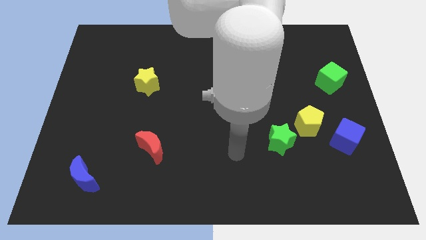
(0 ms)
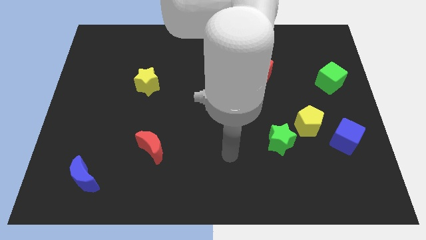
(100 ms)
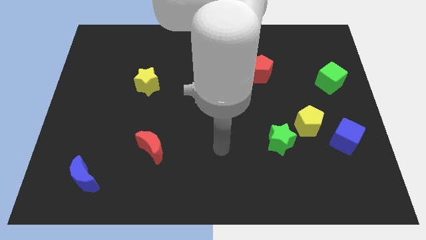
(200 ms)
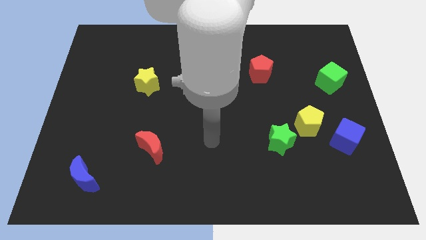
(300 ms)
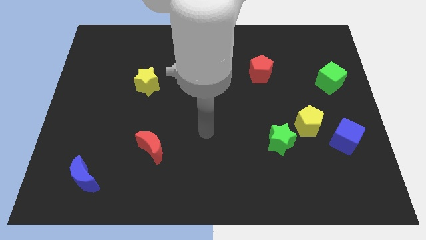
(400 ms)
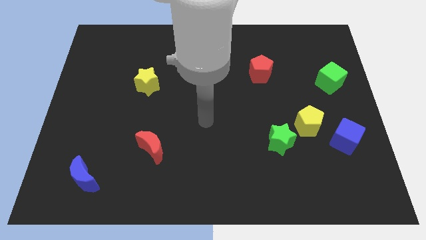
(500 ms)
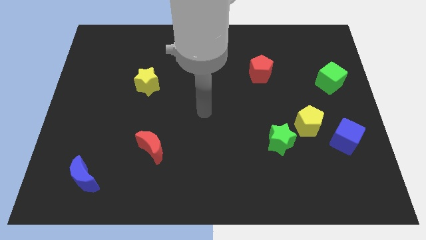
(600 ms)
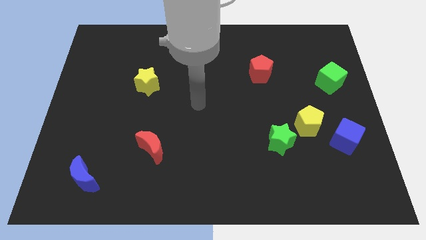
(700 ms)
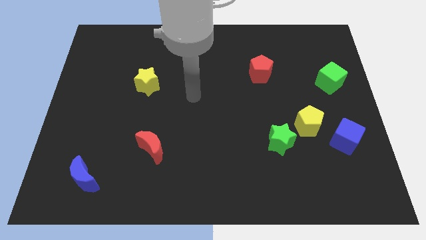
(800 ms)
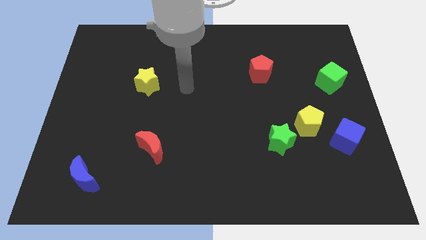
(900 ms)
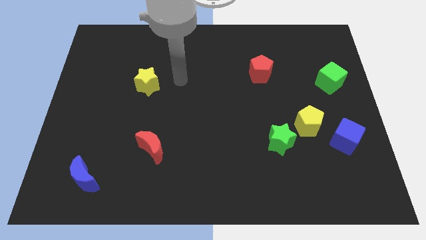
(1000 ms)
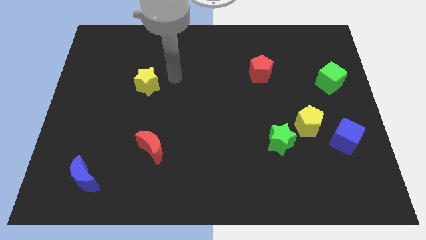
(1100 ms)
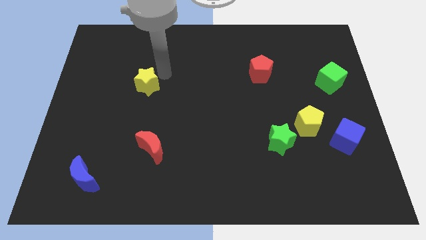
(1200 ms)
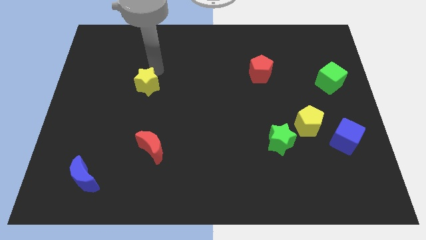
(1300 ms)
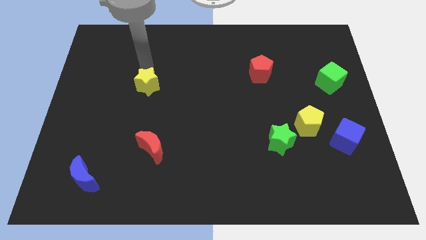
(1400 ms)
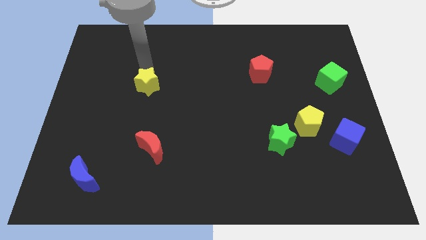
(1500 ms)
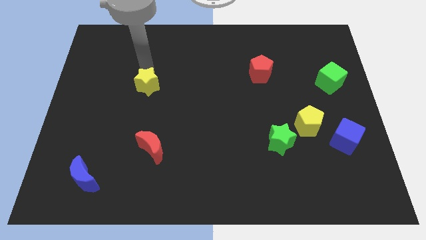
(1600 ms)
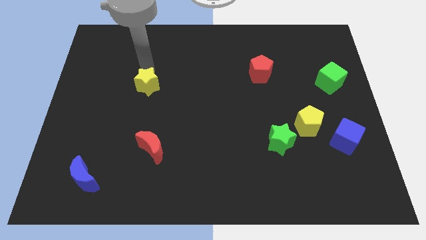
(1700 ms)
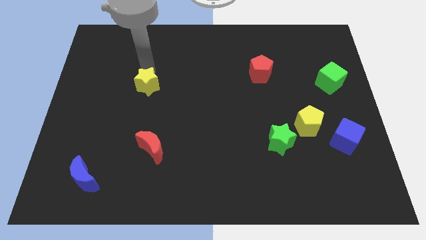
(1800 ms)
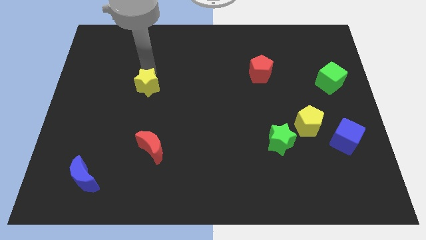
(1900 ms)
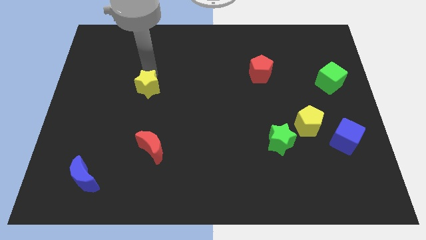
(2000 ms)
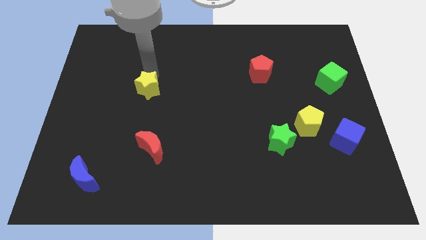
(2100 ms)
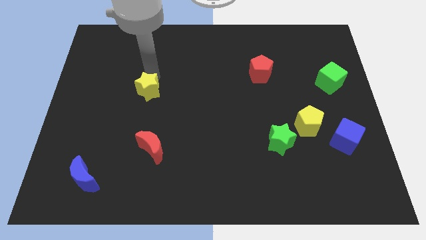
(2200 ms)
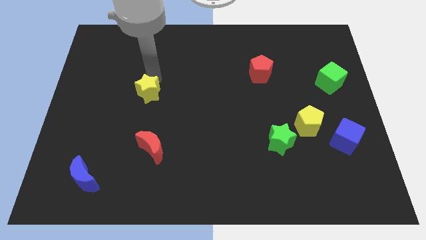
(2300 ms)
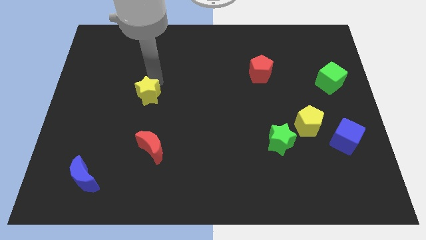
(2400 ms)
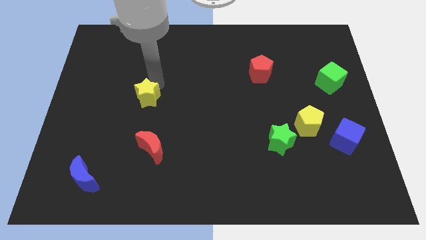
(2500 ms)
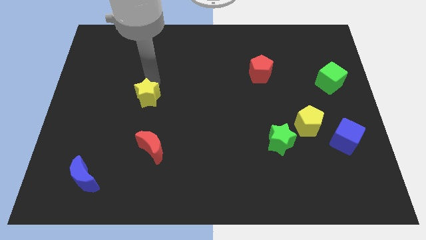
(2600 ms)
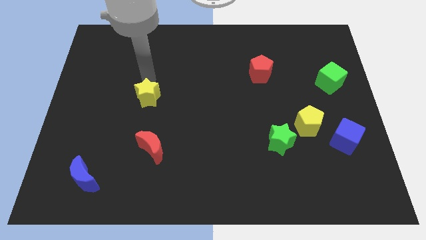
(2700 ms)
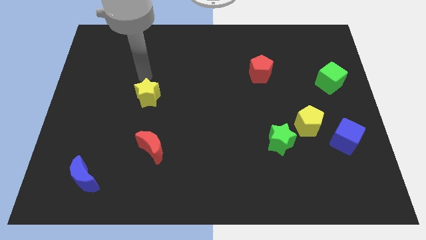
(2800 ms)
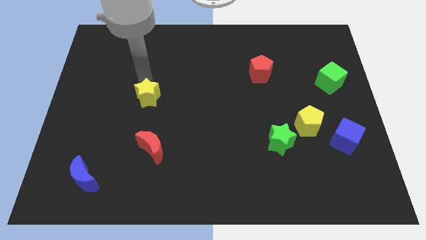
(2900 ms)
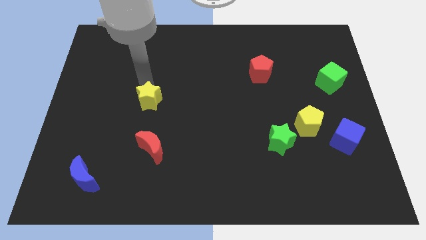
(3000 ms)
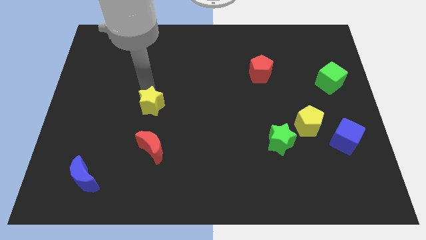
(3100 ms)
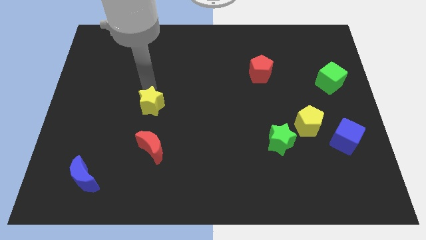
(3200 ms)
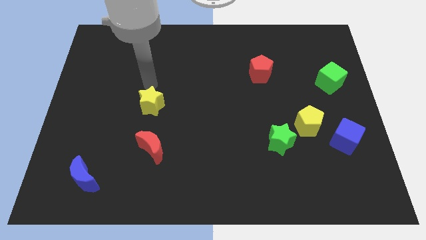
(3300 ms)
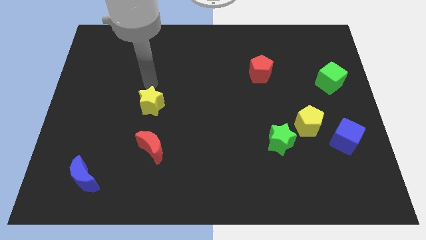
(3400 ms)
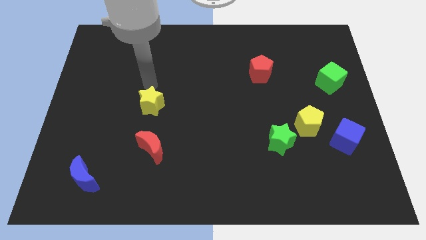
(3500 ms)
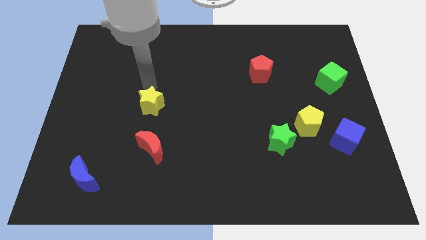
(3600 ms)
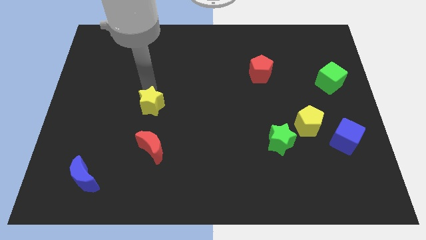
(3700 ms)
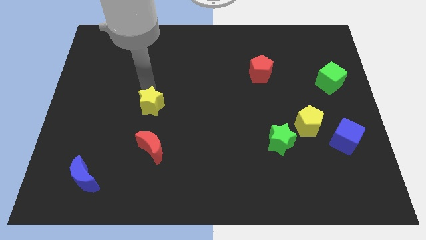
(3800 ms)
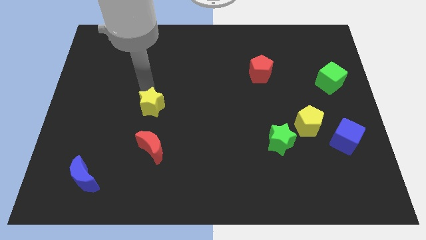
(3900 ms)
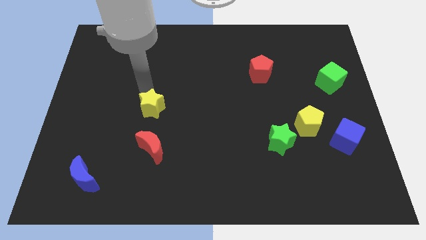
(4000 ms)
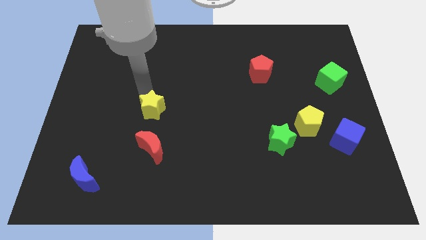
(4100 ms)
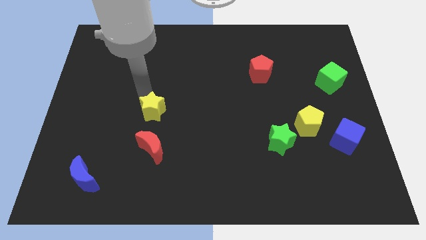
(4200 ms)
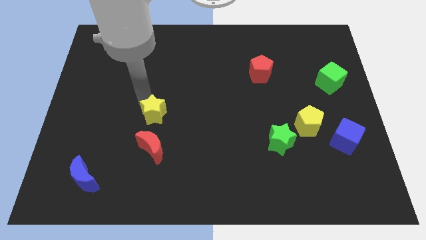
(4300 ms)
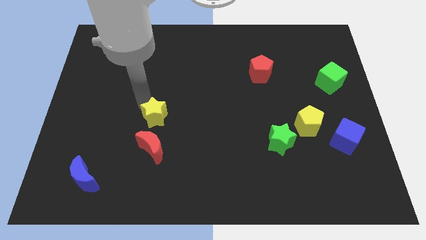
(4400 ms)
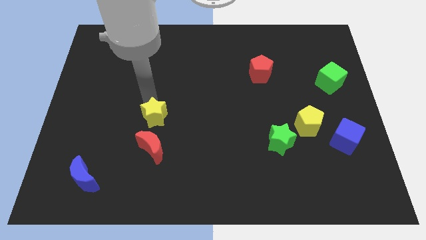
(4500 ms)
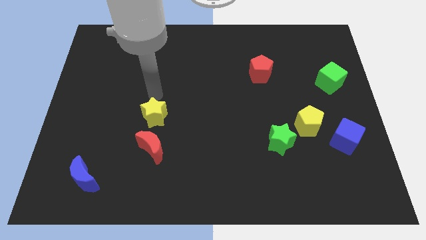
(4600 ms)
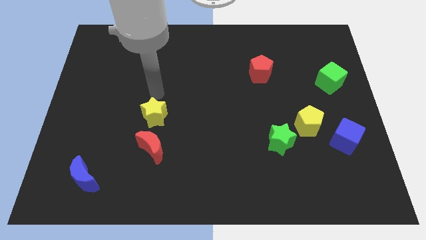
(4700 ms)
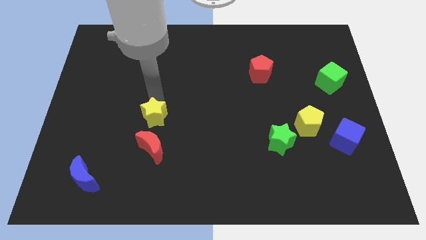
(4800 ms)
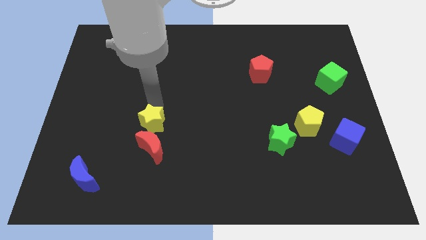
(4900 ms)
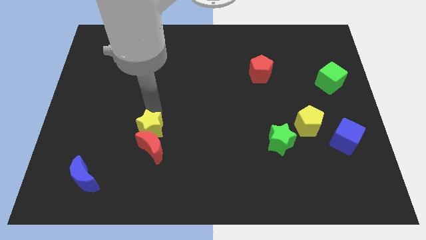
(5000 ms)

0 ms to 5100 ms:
slide the yellow star towards the red moon

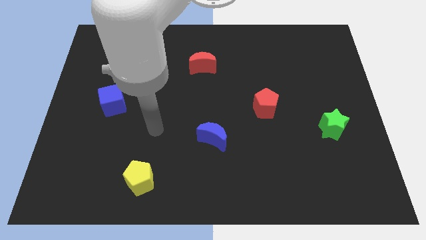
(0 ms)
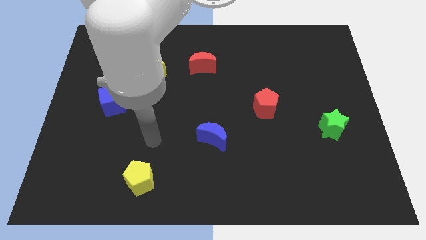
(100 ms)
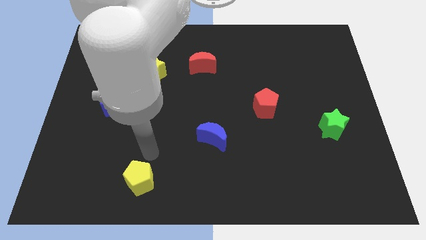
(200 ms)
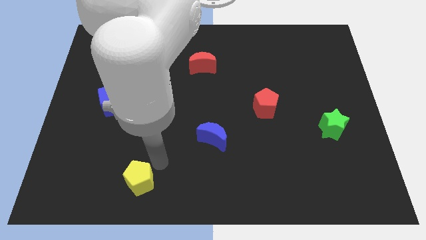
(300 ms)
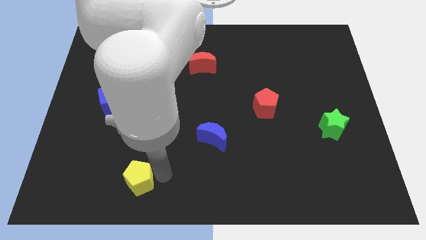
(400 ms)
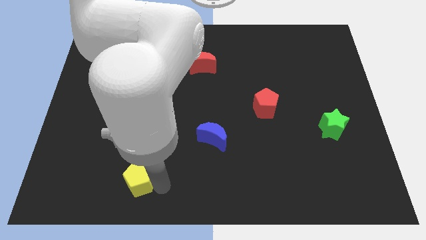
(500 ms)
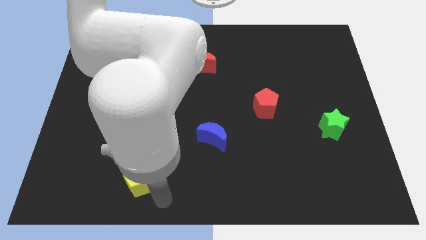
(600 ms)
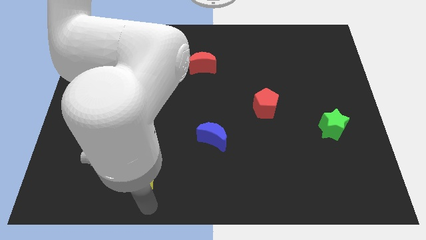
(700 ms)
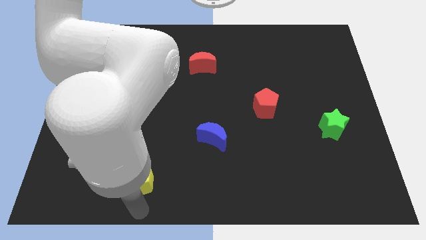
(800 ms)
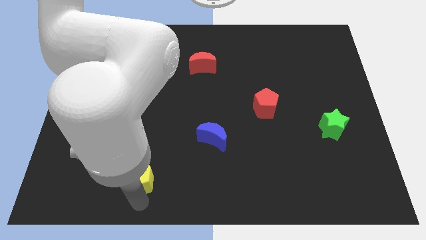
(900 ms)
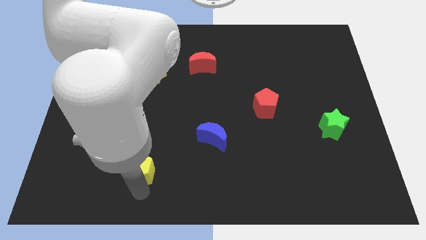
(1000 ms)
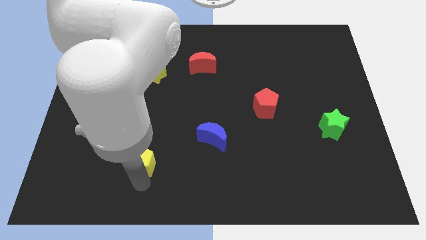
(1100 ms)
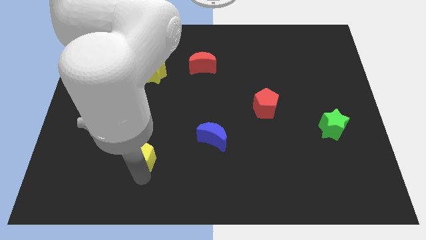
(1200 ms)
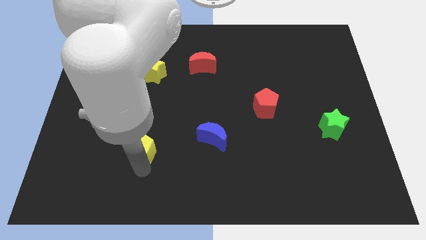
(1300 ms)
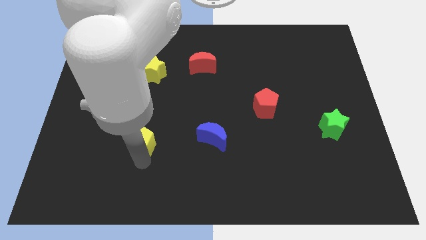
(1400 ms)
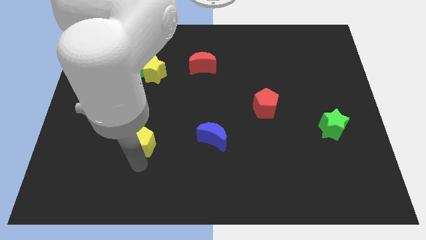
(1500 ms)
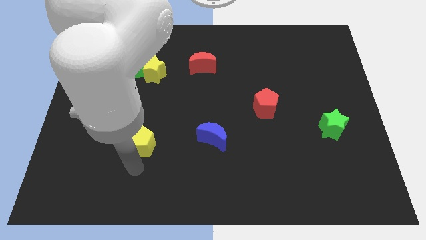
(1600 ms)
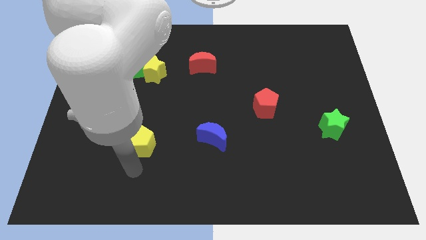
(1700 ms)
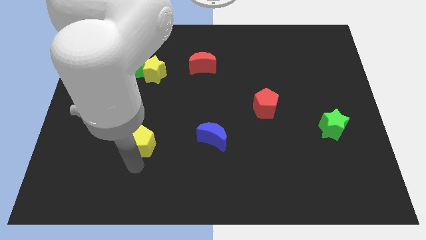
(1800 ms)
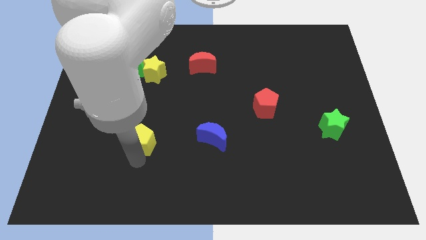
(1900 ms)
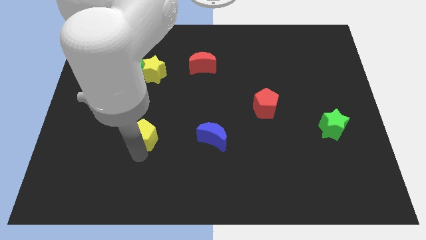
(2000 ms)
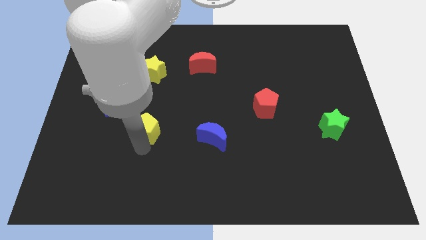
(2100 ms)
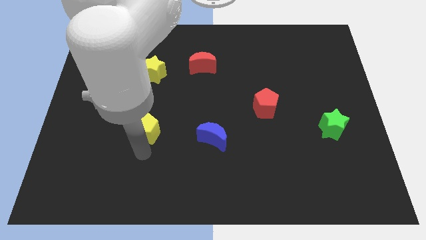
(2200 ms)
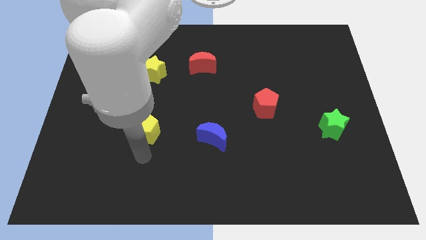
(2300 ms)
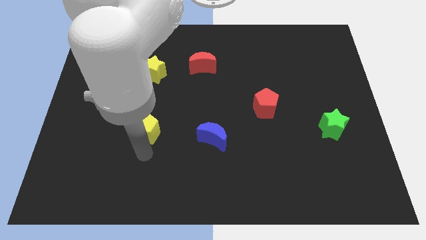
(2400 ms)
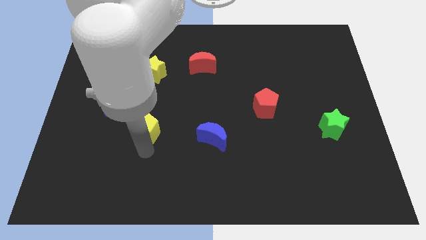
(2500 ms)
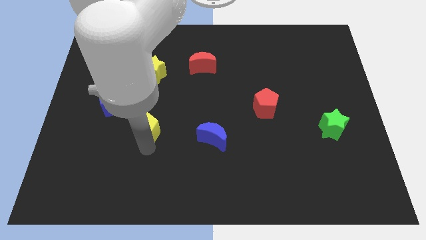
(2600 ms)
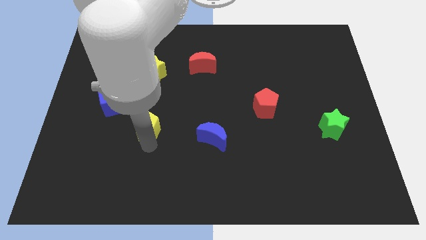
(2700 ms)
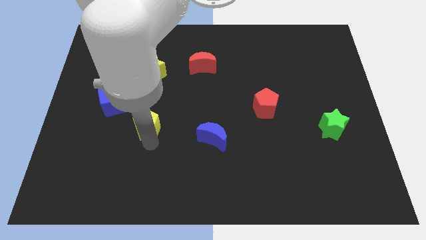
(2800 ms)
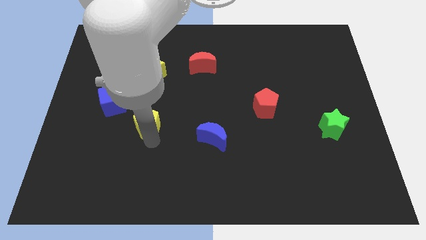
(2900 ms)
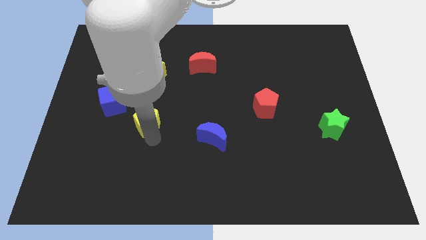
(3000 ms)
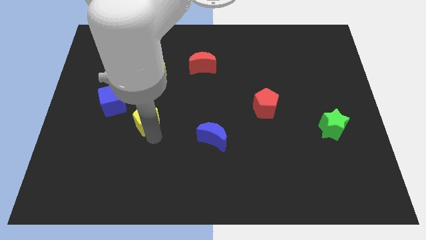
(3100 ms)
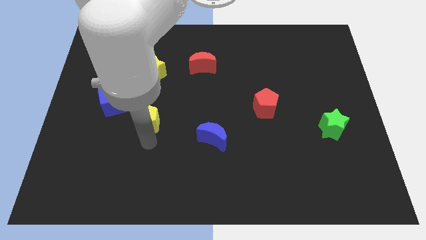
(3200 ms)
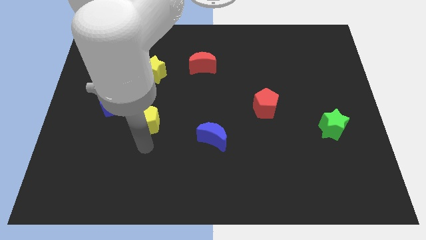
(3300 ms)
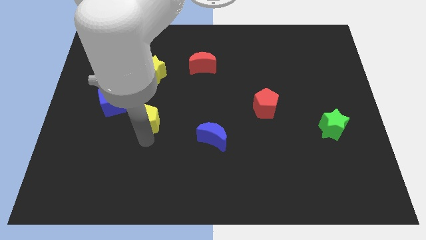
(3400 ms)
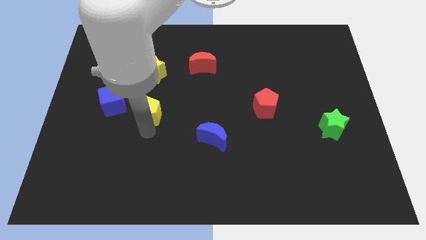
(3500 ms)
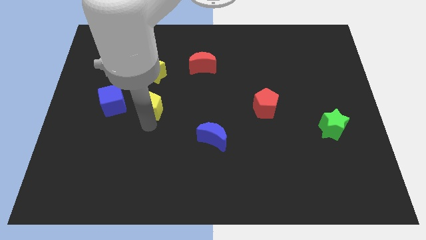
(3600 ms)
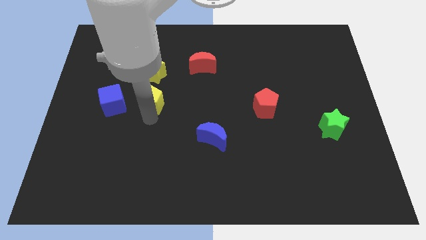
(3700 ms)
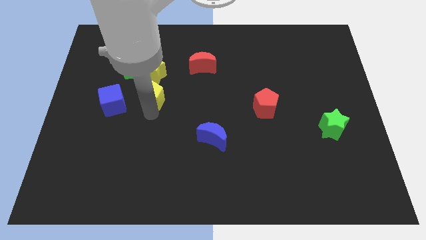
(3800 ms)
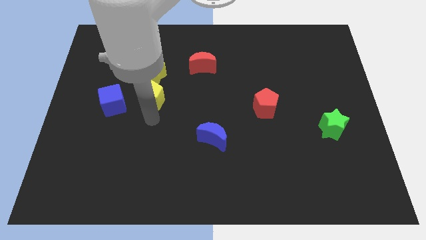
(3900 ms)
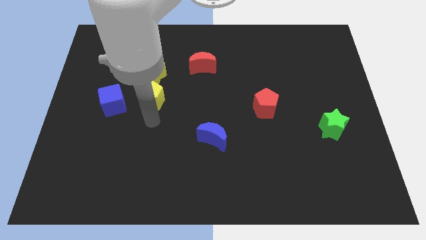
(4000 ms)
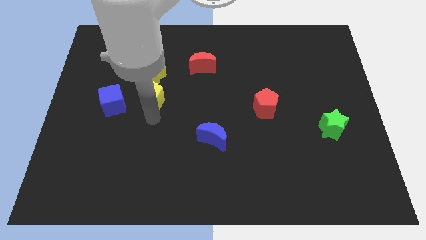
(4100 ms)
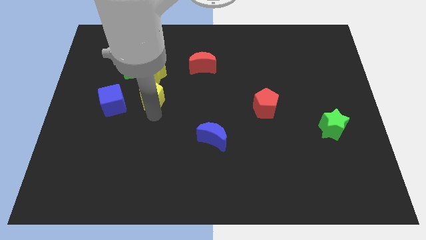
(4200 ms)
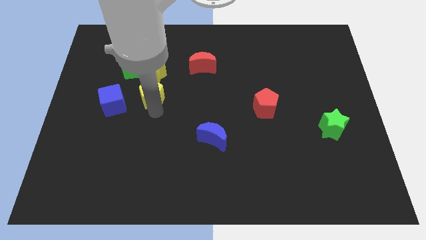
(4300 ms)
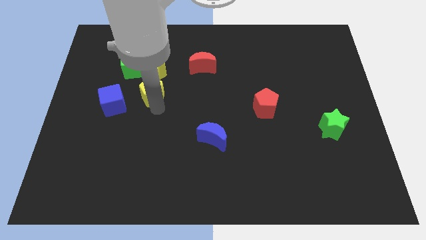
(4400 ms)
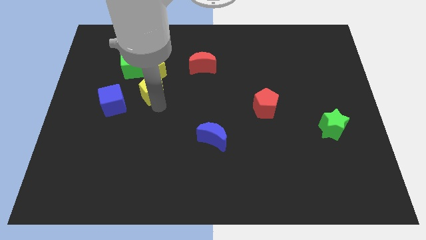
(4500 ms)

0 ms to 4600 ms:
push the yellow pentagon next to the yellow star
